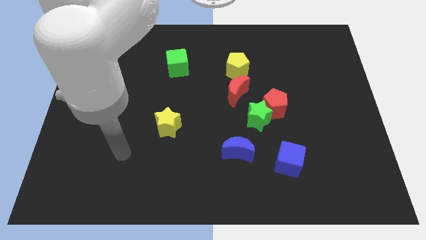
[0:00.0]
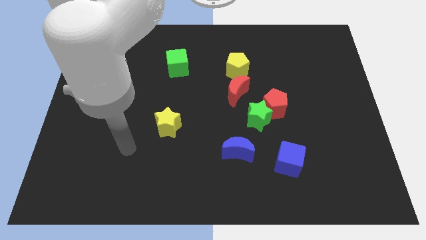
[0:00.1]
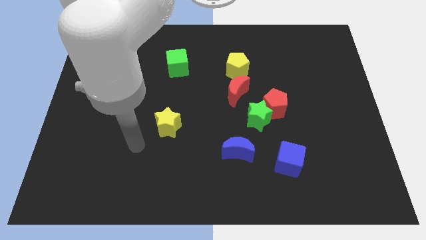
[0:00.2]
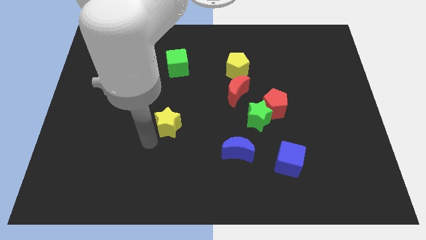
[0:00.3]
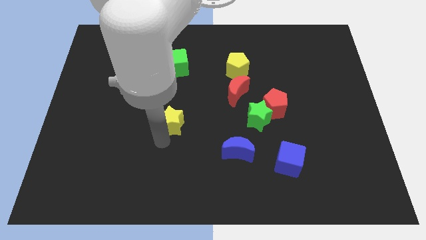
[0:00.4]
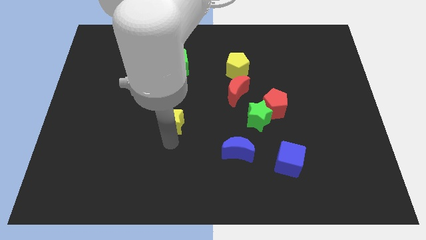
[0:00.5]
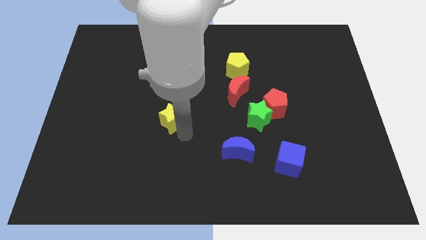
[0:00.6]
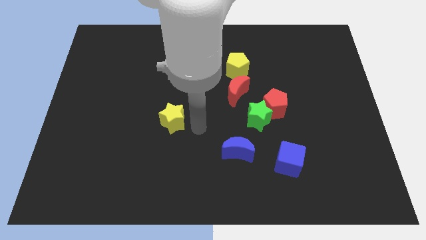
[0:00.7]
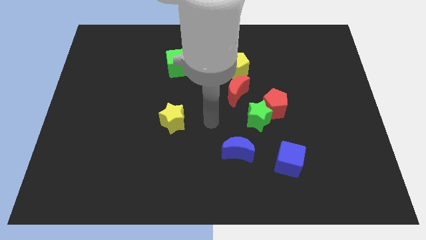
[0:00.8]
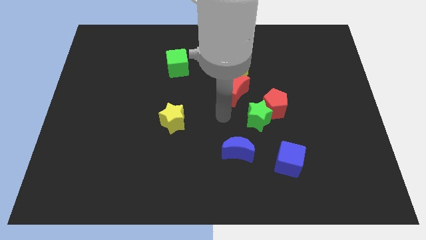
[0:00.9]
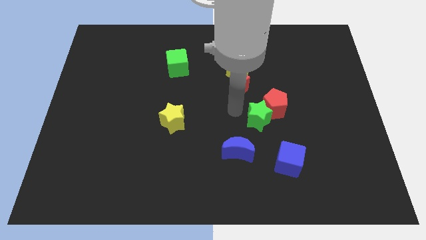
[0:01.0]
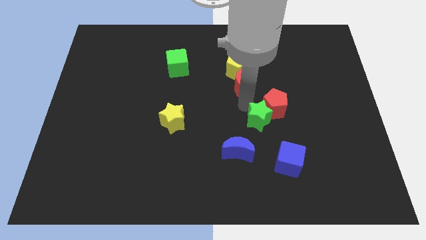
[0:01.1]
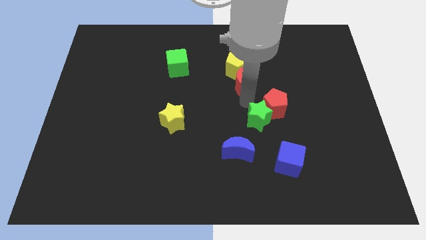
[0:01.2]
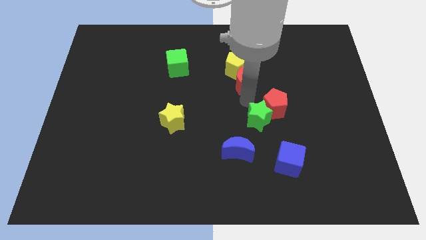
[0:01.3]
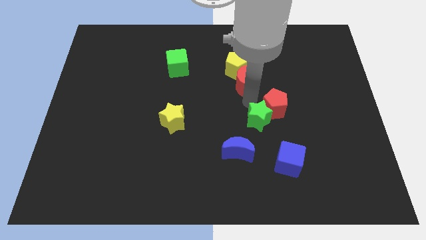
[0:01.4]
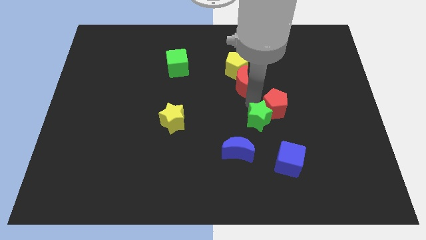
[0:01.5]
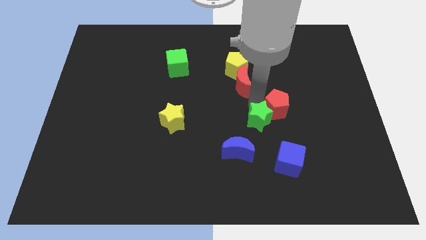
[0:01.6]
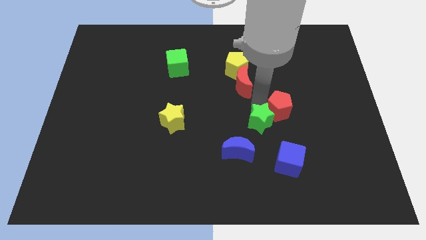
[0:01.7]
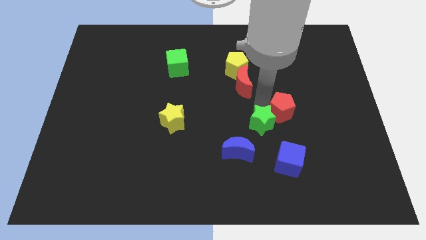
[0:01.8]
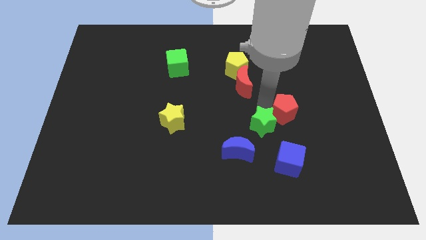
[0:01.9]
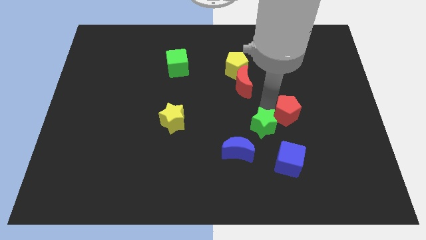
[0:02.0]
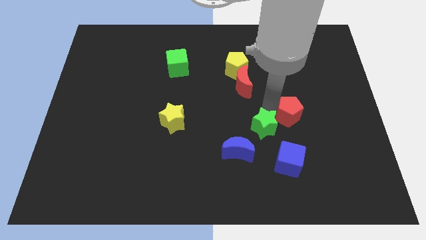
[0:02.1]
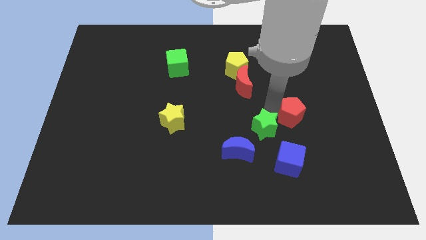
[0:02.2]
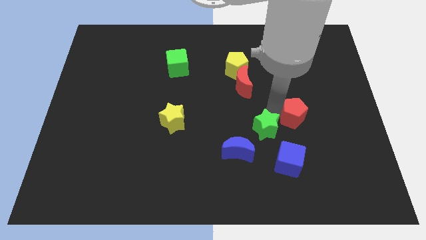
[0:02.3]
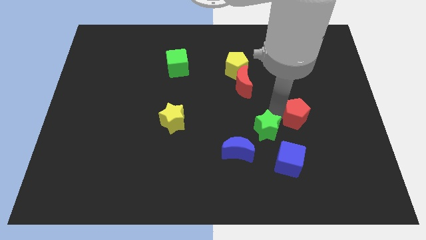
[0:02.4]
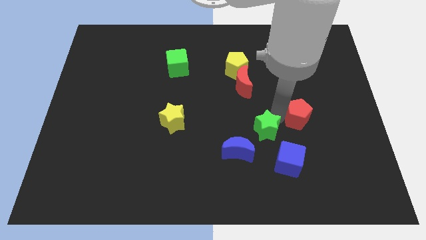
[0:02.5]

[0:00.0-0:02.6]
separate the red pentagon from the green star and red moon

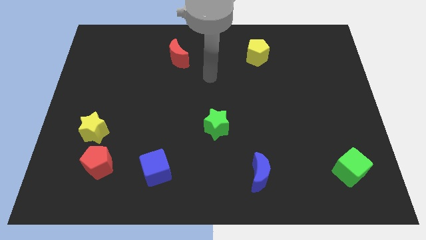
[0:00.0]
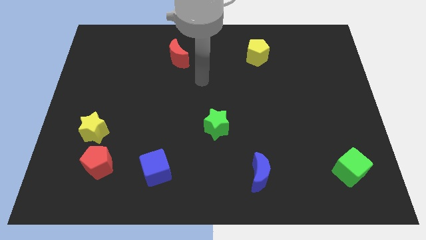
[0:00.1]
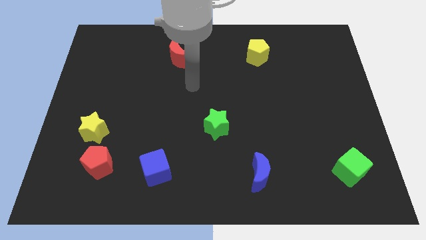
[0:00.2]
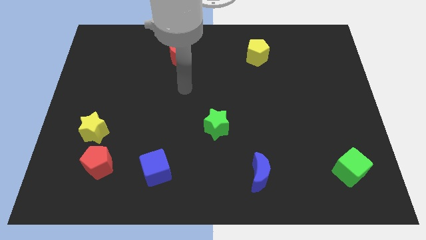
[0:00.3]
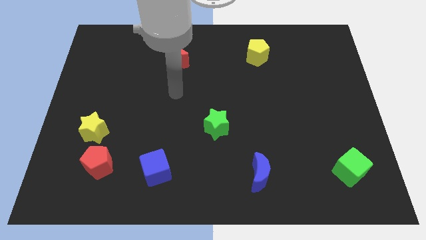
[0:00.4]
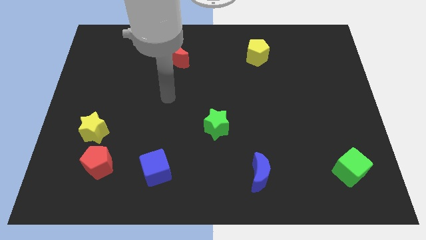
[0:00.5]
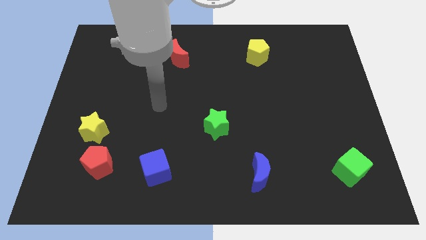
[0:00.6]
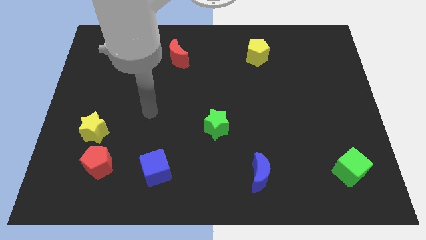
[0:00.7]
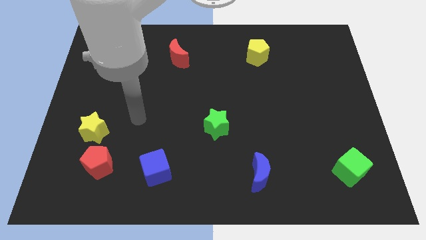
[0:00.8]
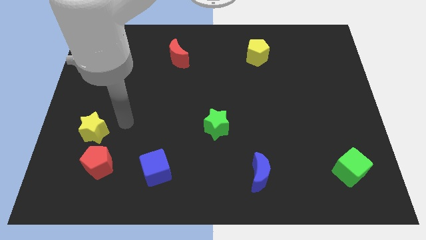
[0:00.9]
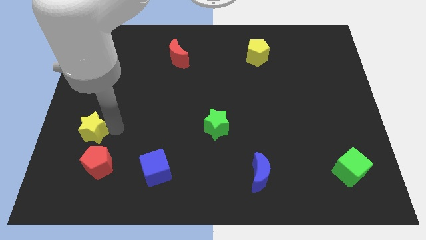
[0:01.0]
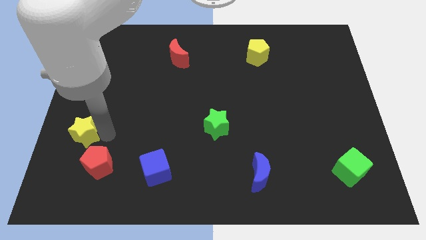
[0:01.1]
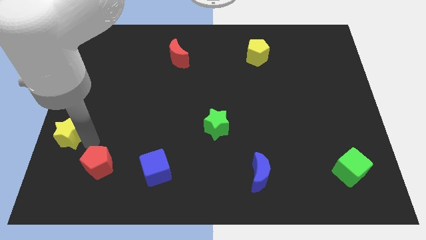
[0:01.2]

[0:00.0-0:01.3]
pull the red pentagon apart from the yellow star

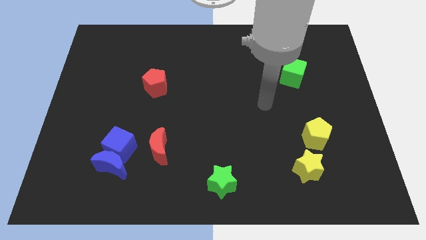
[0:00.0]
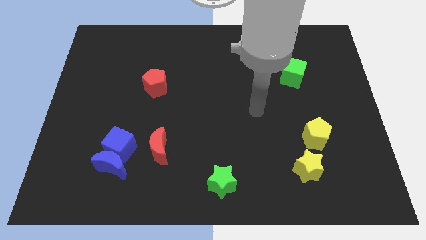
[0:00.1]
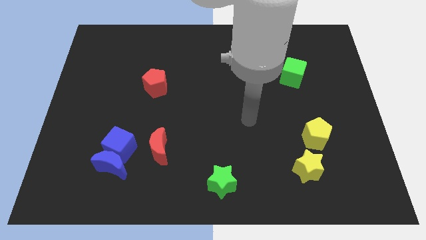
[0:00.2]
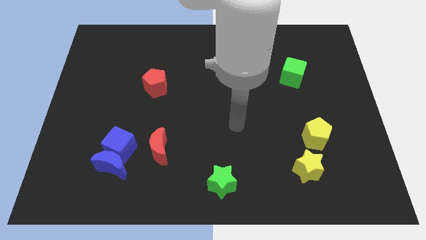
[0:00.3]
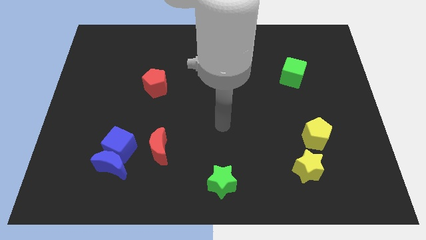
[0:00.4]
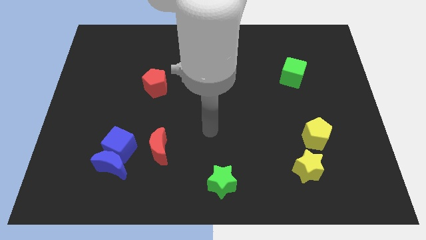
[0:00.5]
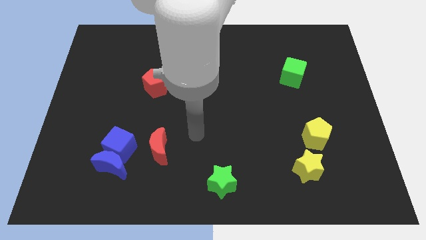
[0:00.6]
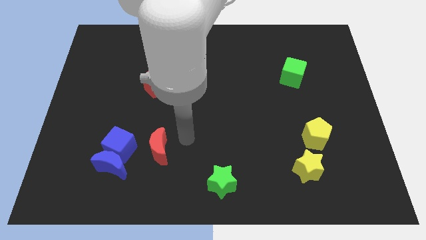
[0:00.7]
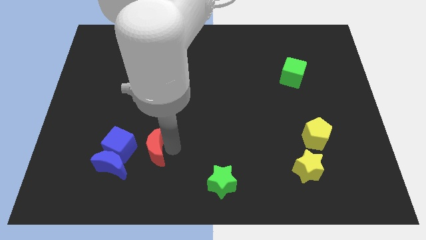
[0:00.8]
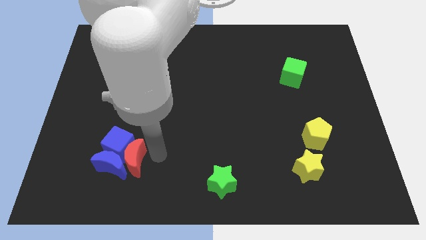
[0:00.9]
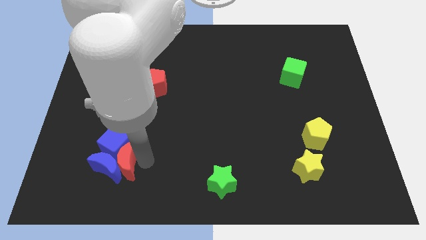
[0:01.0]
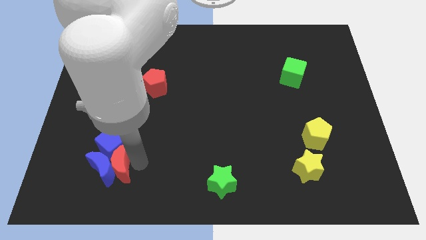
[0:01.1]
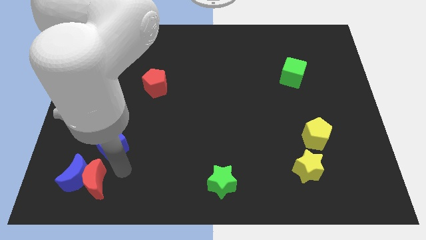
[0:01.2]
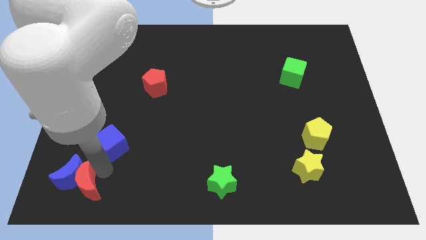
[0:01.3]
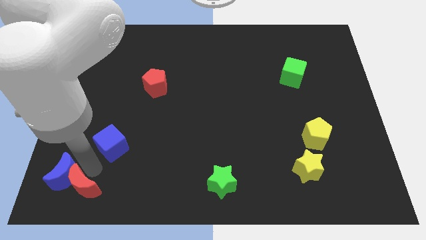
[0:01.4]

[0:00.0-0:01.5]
separate the blue cube from the blue moon and red moon

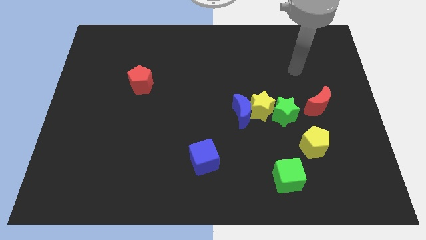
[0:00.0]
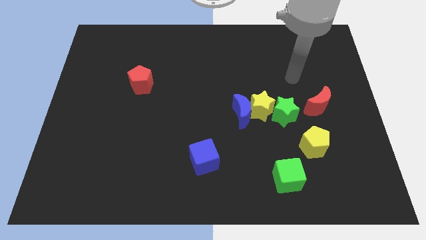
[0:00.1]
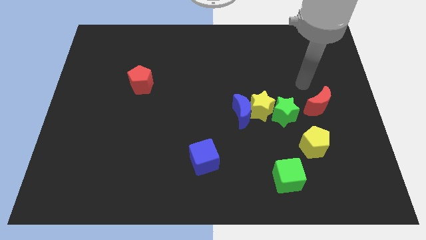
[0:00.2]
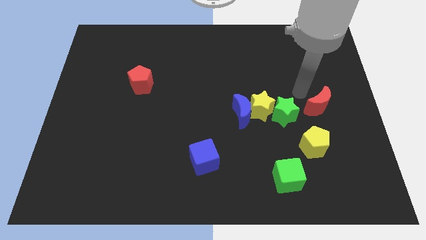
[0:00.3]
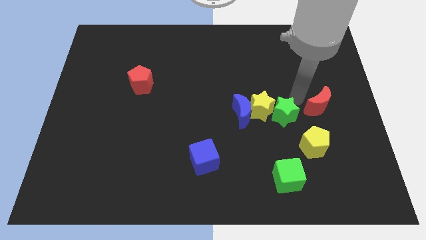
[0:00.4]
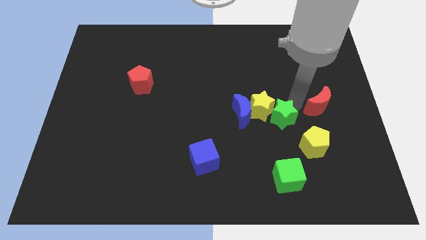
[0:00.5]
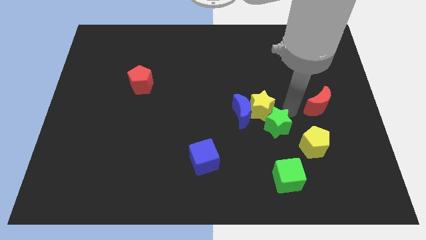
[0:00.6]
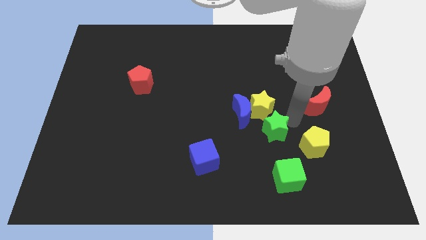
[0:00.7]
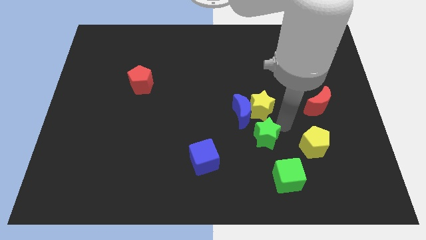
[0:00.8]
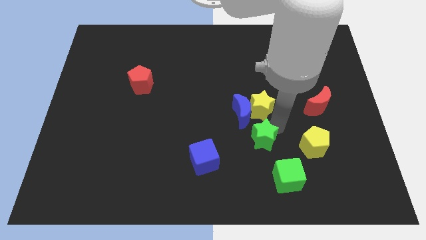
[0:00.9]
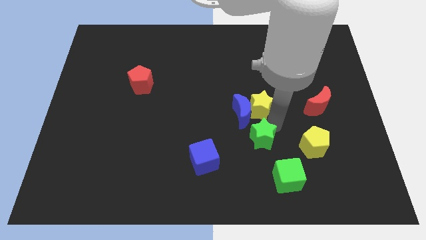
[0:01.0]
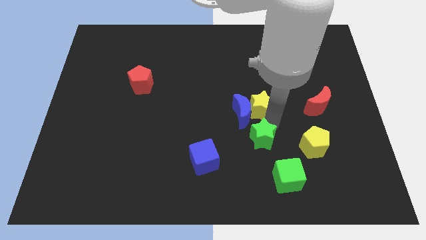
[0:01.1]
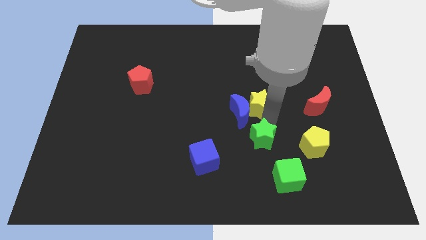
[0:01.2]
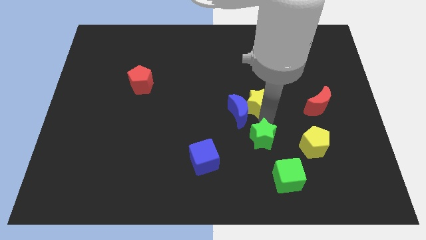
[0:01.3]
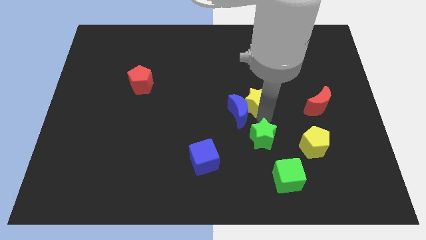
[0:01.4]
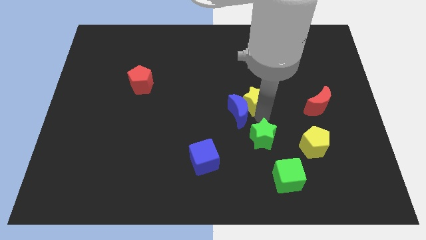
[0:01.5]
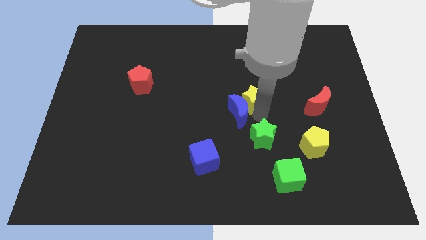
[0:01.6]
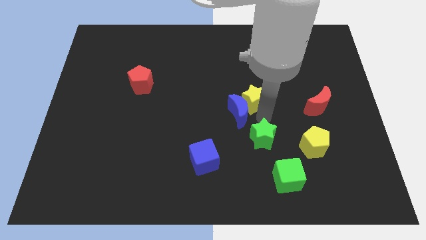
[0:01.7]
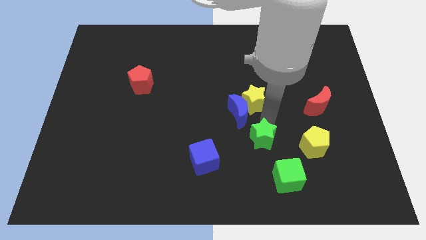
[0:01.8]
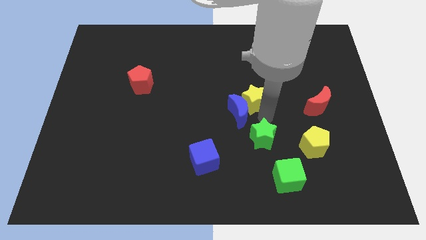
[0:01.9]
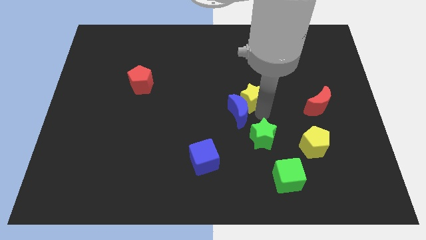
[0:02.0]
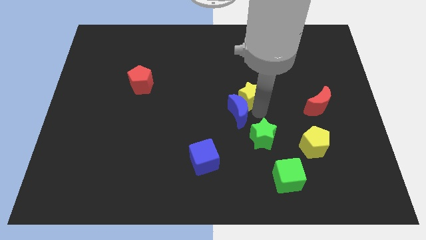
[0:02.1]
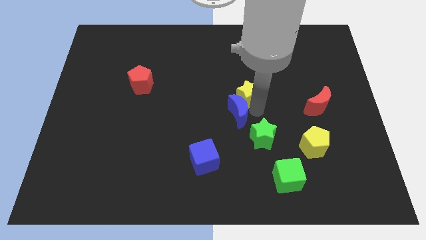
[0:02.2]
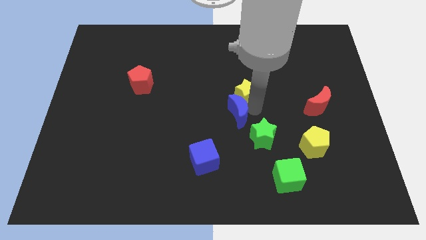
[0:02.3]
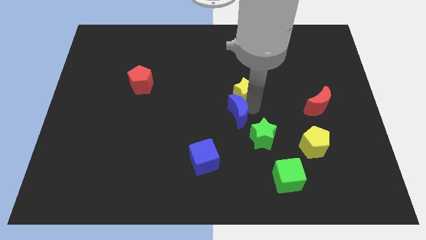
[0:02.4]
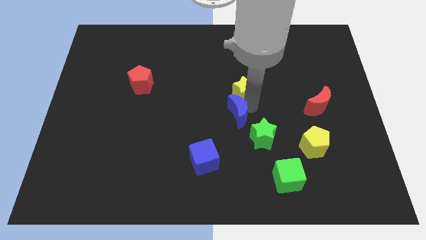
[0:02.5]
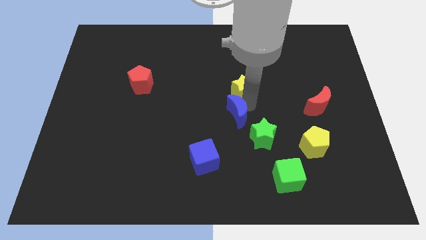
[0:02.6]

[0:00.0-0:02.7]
separate the yellow star from the blue moon and green star

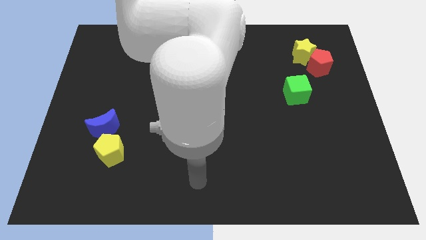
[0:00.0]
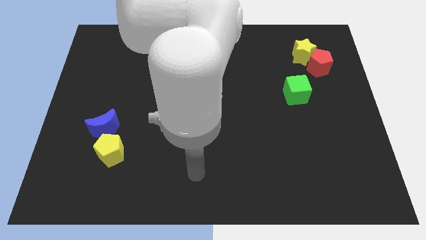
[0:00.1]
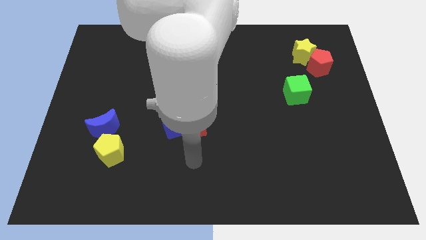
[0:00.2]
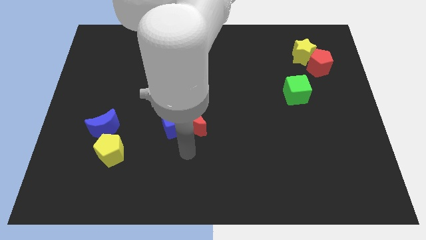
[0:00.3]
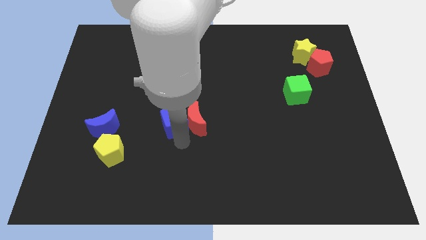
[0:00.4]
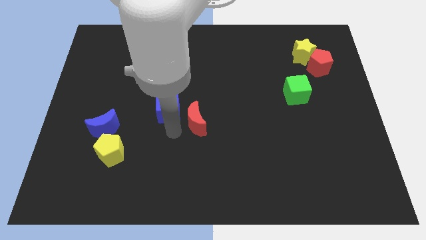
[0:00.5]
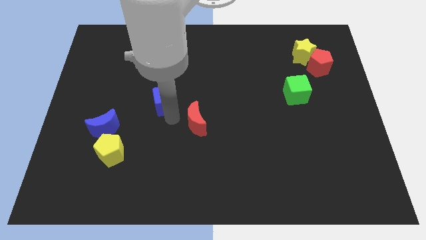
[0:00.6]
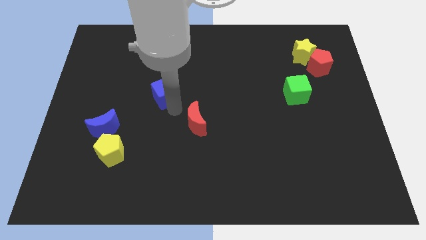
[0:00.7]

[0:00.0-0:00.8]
move the red moon away from the blue cube

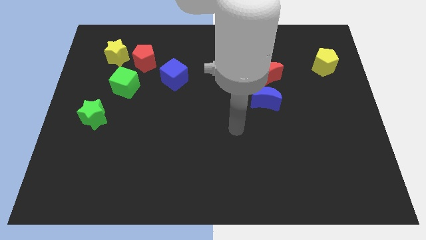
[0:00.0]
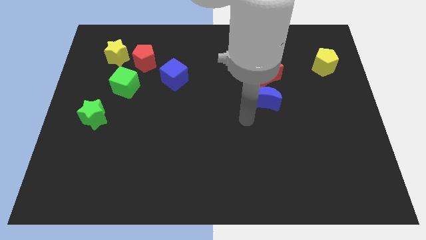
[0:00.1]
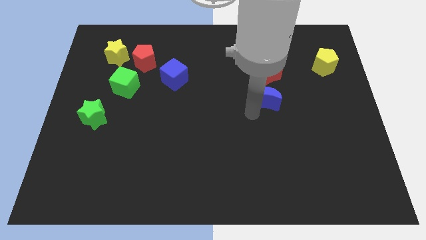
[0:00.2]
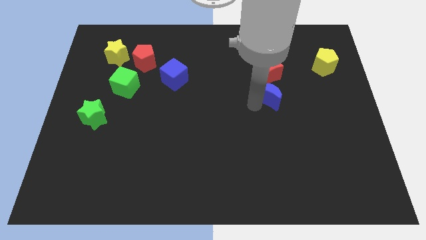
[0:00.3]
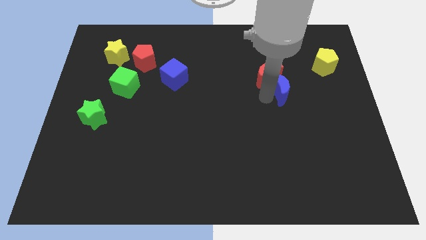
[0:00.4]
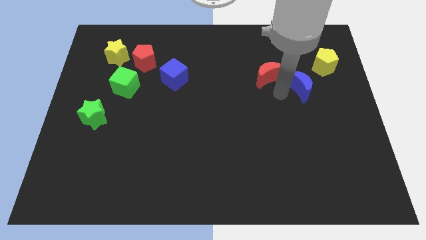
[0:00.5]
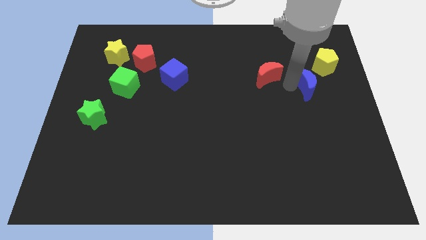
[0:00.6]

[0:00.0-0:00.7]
separate the red moon from the blue moon
